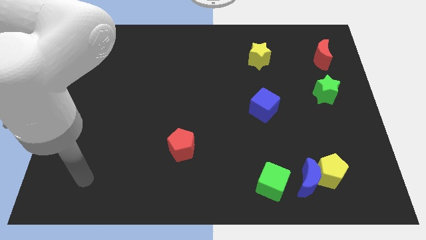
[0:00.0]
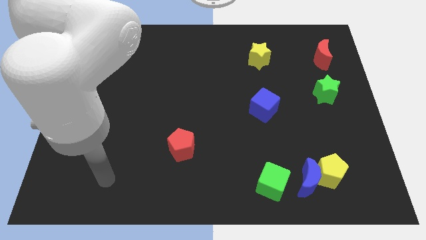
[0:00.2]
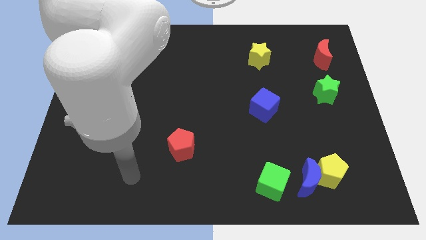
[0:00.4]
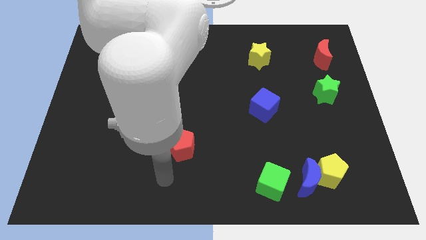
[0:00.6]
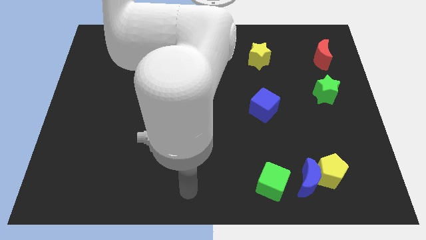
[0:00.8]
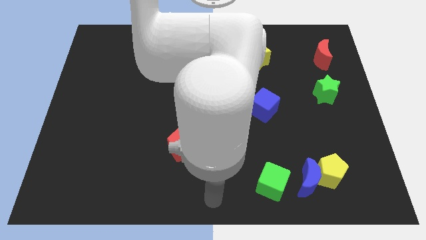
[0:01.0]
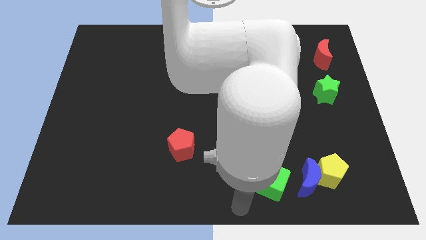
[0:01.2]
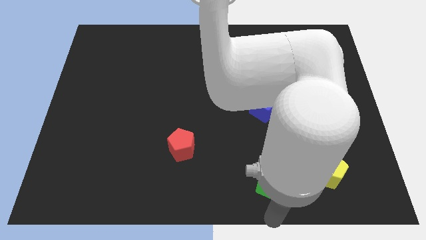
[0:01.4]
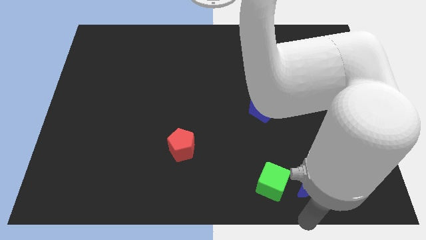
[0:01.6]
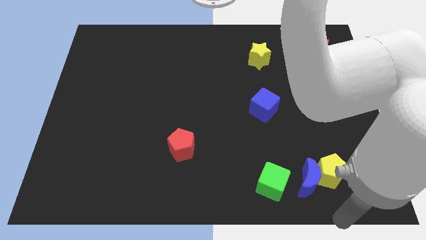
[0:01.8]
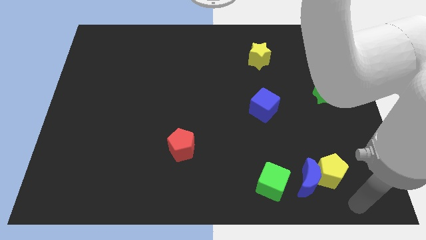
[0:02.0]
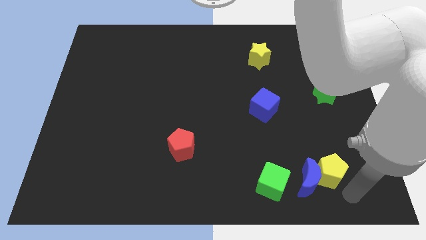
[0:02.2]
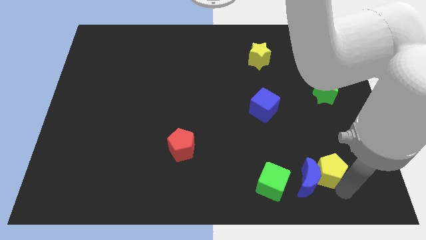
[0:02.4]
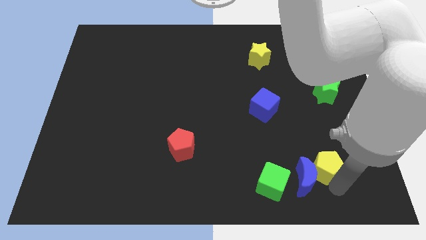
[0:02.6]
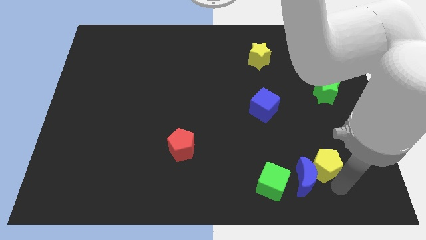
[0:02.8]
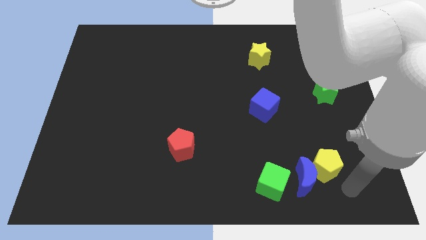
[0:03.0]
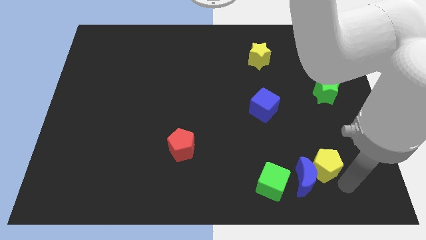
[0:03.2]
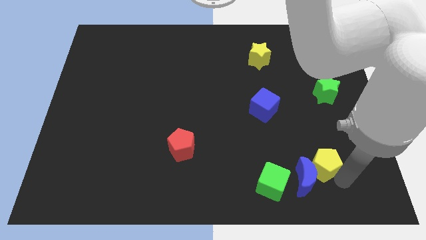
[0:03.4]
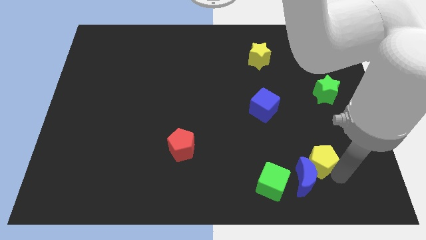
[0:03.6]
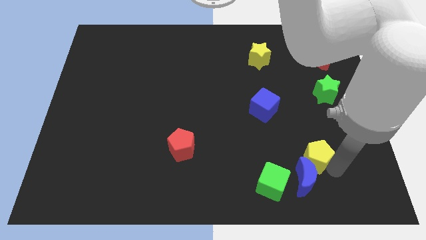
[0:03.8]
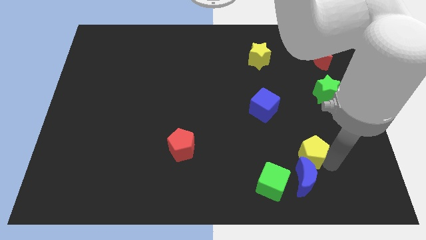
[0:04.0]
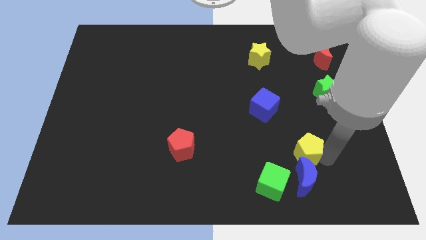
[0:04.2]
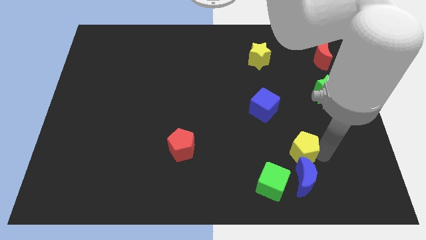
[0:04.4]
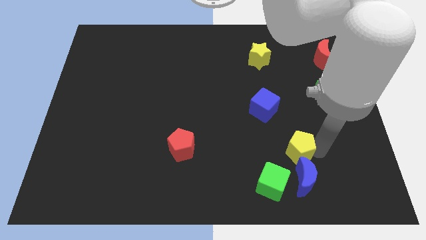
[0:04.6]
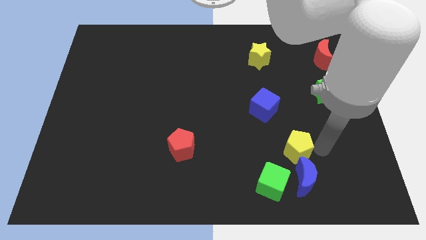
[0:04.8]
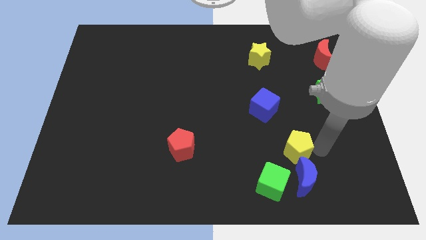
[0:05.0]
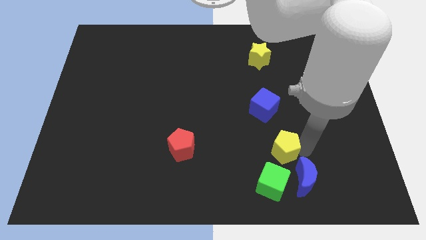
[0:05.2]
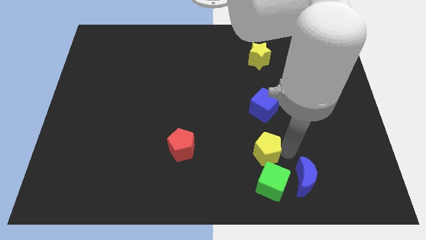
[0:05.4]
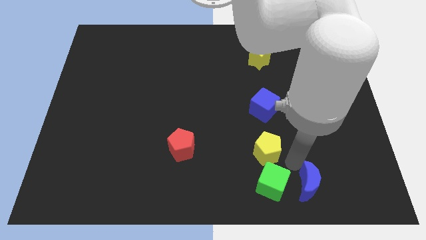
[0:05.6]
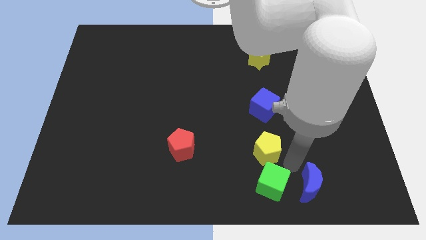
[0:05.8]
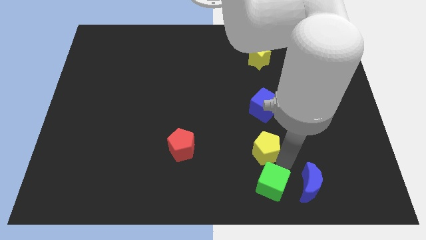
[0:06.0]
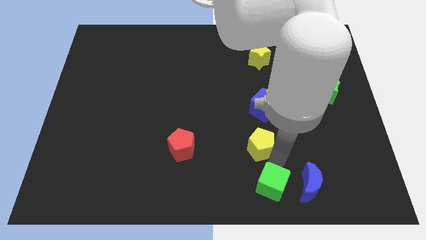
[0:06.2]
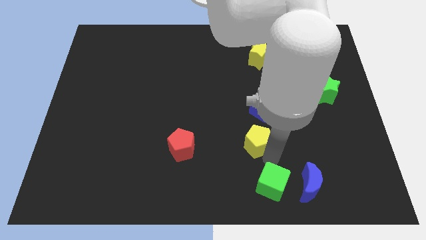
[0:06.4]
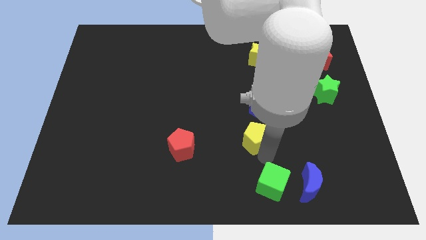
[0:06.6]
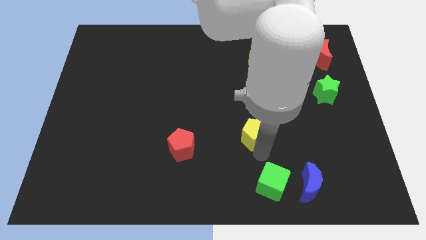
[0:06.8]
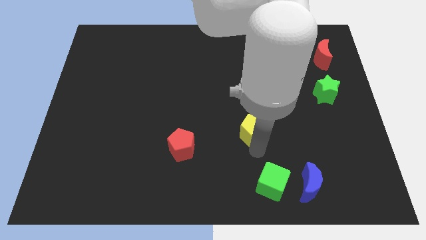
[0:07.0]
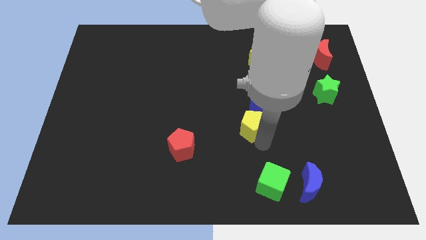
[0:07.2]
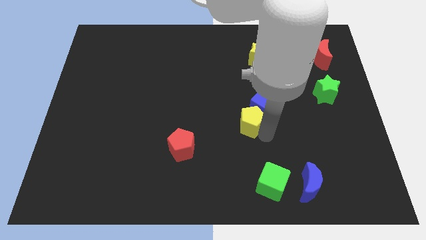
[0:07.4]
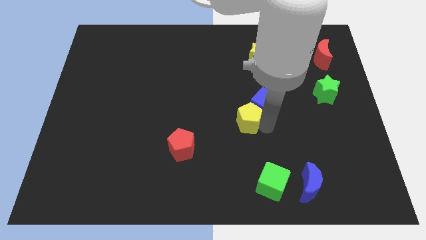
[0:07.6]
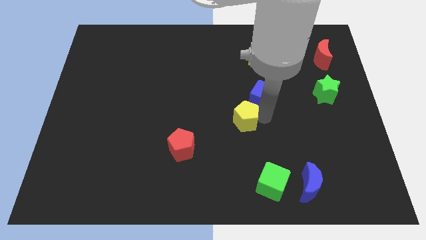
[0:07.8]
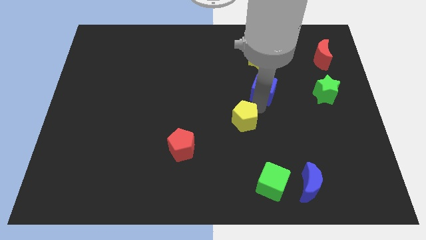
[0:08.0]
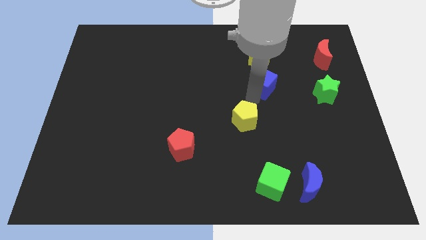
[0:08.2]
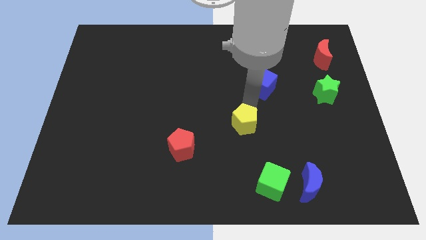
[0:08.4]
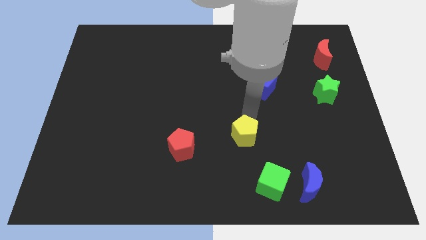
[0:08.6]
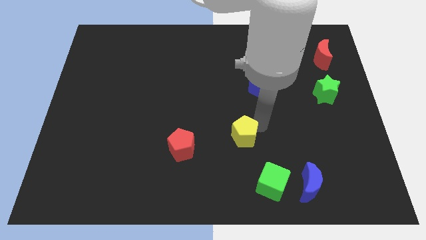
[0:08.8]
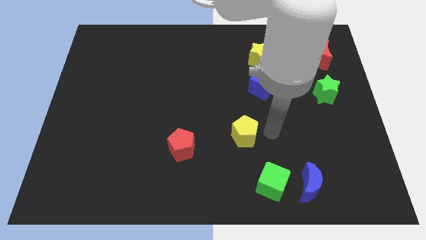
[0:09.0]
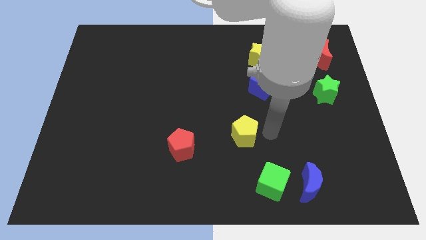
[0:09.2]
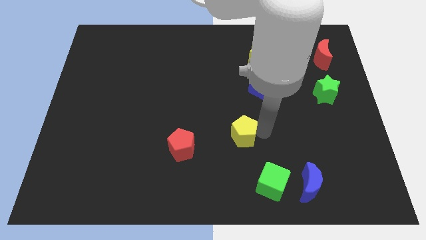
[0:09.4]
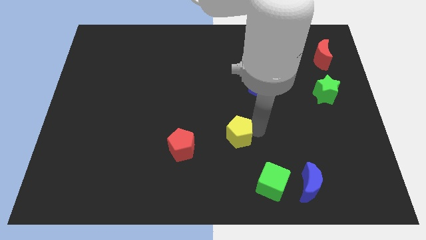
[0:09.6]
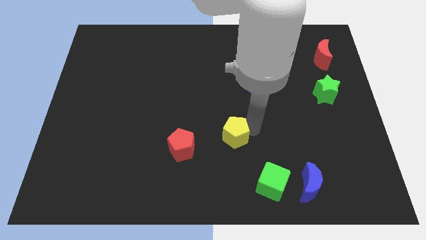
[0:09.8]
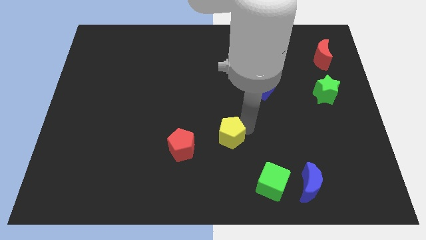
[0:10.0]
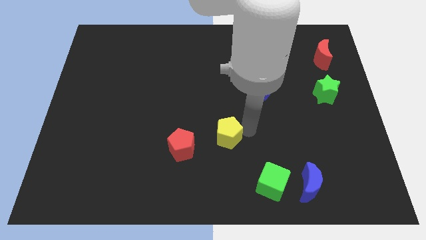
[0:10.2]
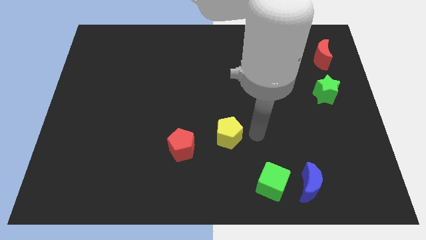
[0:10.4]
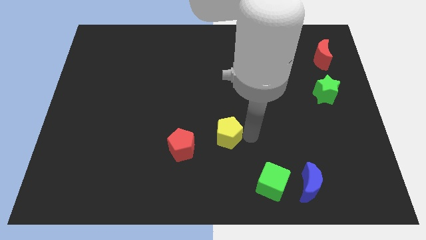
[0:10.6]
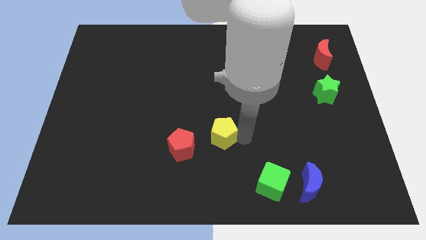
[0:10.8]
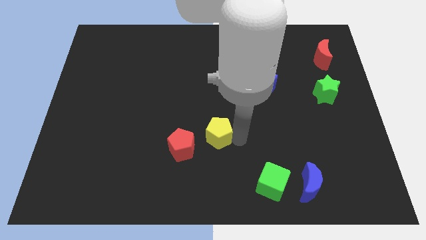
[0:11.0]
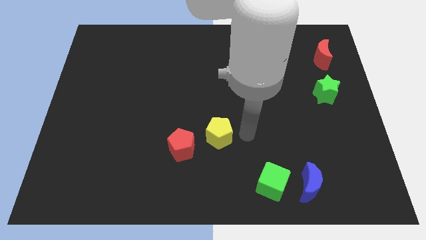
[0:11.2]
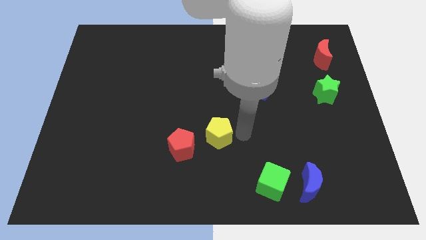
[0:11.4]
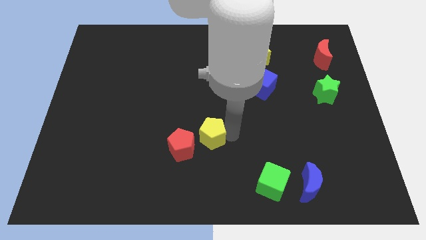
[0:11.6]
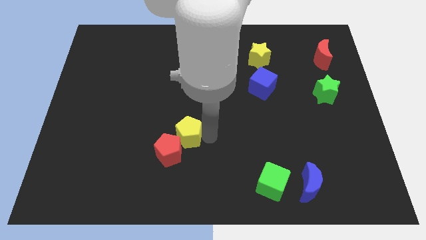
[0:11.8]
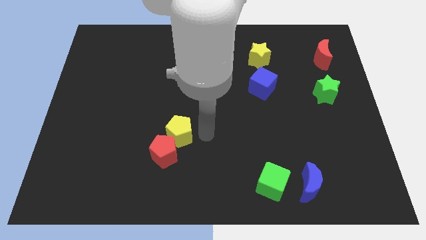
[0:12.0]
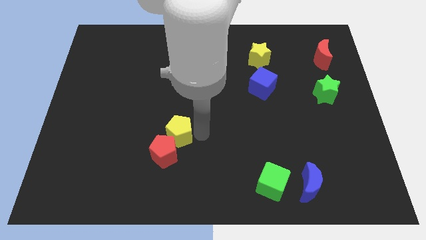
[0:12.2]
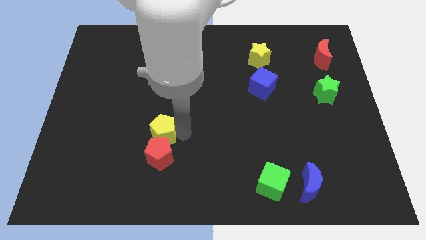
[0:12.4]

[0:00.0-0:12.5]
move the yellow pentagon to the top left side of the red pentagon

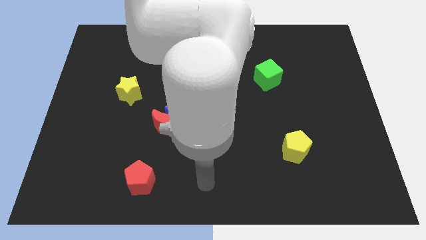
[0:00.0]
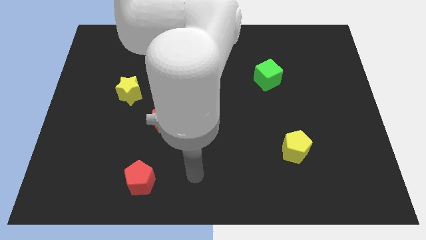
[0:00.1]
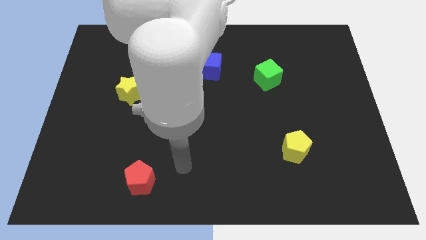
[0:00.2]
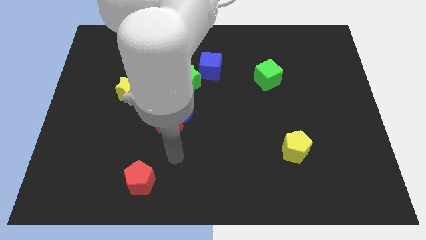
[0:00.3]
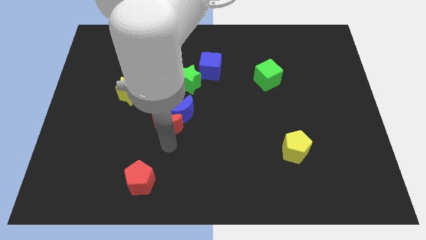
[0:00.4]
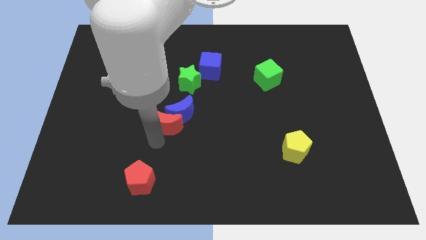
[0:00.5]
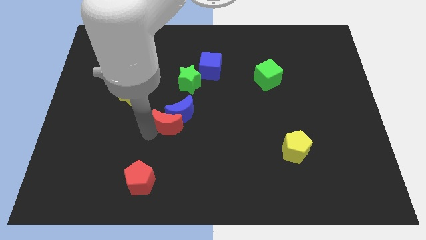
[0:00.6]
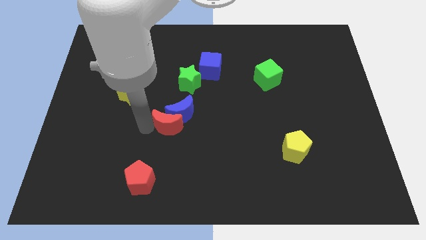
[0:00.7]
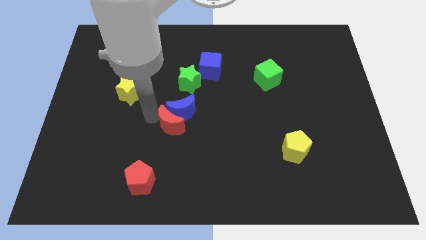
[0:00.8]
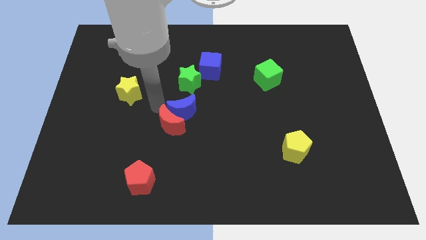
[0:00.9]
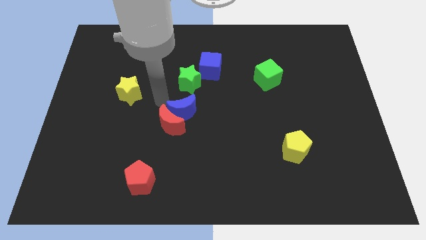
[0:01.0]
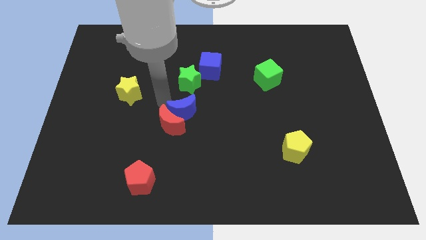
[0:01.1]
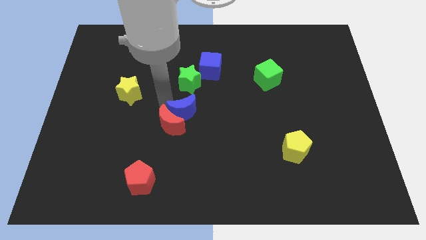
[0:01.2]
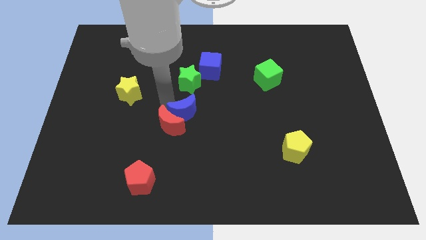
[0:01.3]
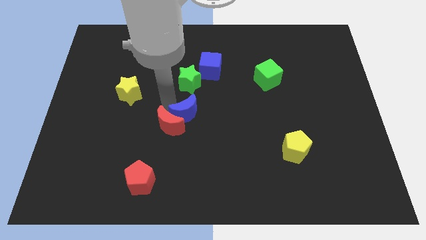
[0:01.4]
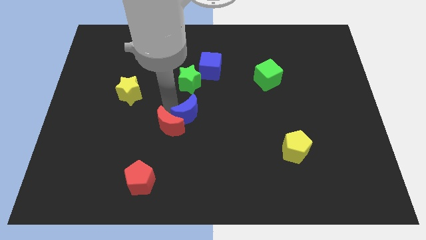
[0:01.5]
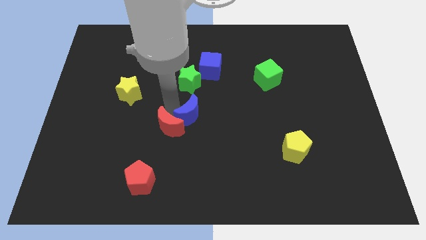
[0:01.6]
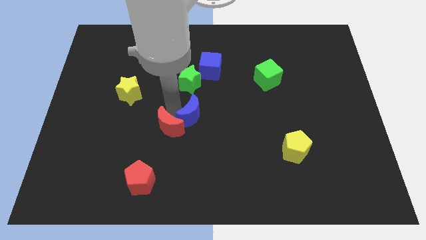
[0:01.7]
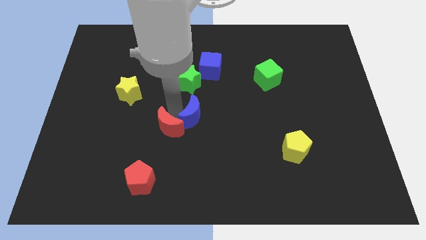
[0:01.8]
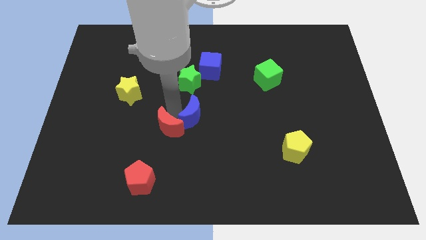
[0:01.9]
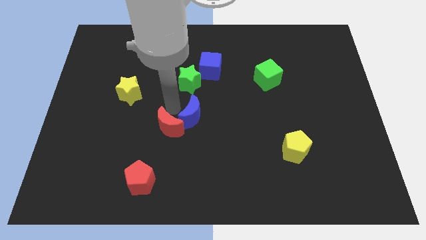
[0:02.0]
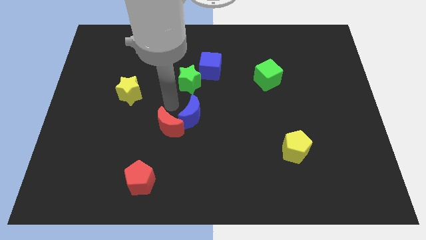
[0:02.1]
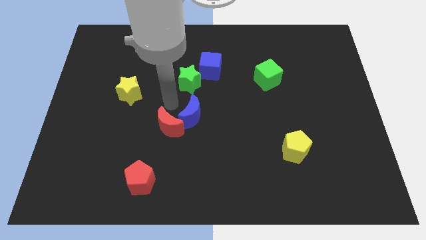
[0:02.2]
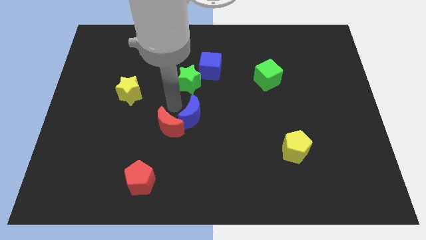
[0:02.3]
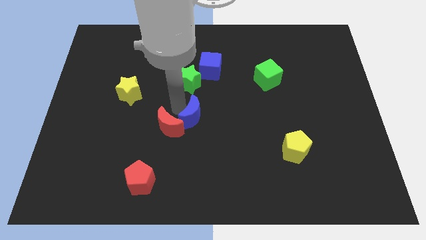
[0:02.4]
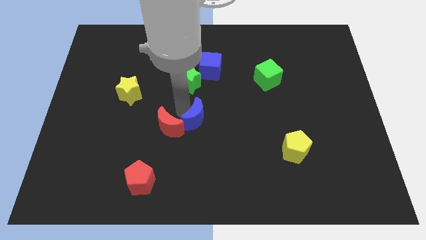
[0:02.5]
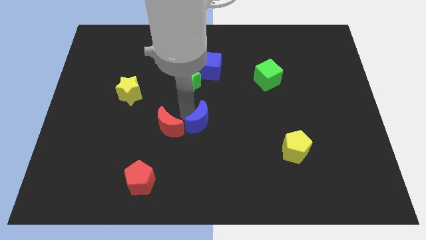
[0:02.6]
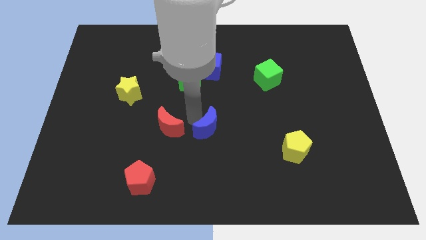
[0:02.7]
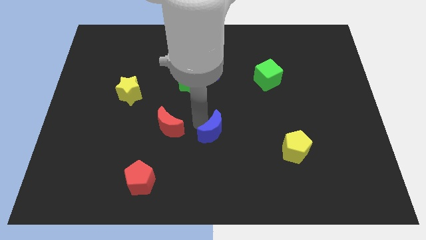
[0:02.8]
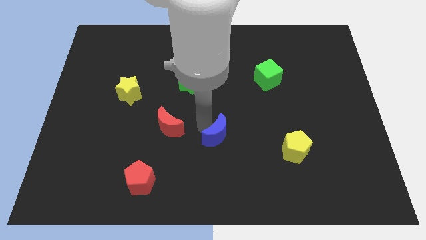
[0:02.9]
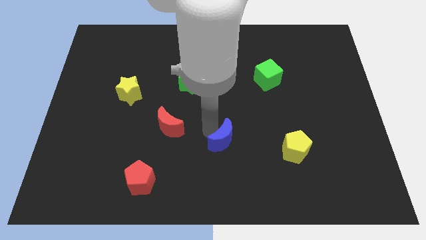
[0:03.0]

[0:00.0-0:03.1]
push the blue moon left of the yellow pentagon
